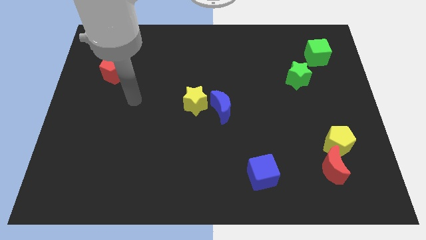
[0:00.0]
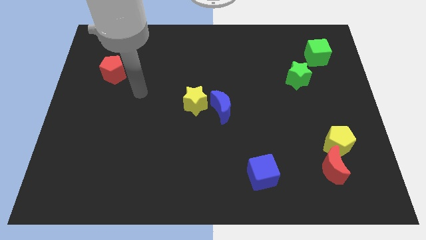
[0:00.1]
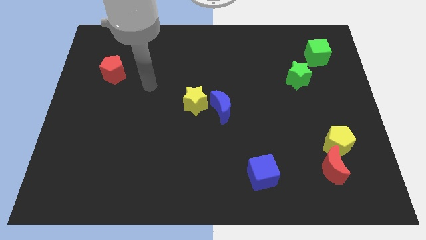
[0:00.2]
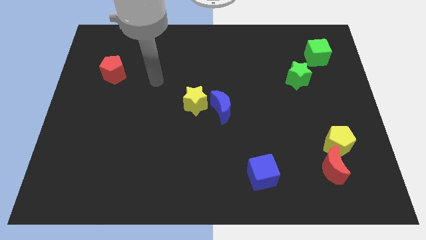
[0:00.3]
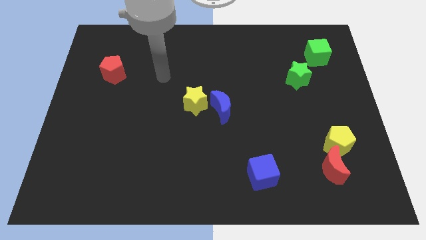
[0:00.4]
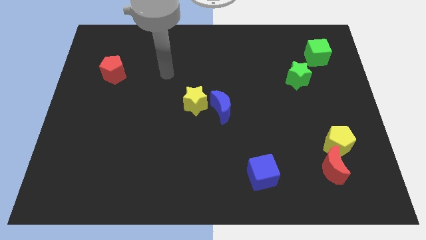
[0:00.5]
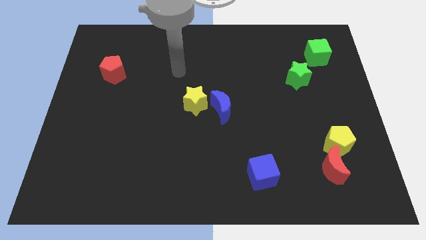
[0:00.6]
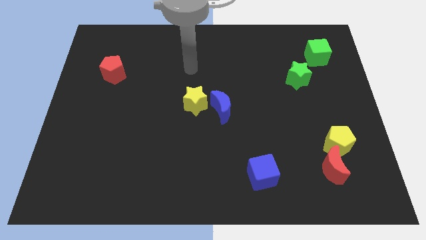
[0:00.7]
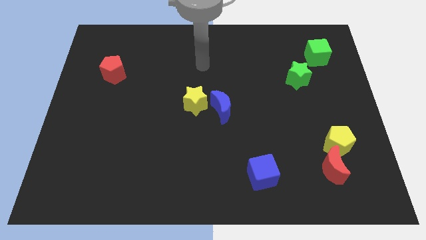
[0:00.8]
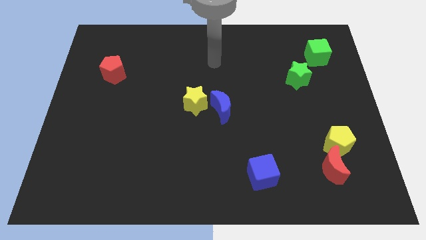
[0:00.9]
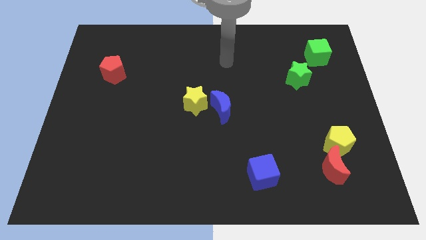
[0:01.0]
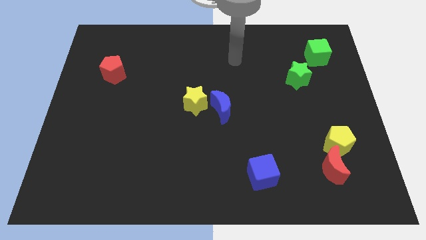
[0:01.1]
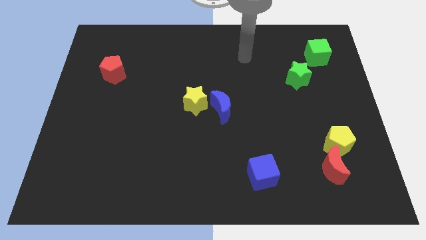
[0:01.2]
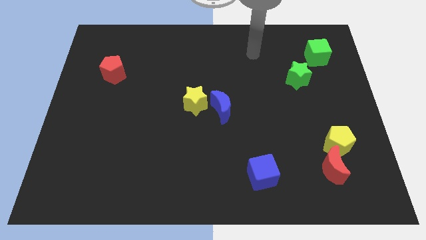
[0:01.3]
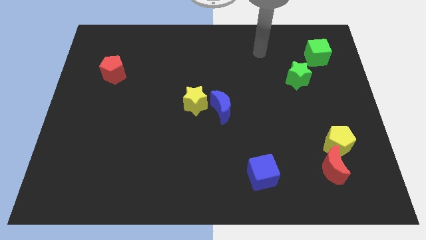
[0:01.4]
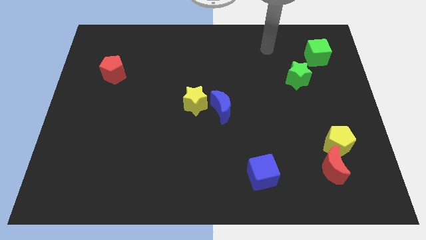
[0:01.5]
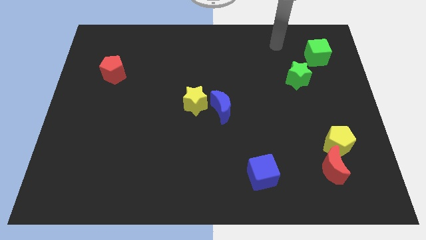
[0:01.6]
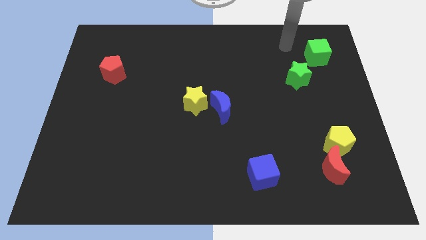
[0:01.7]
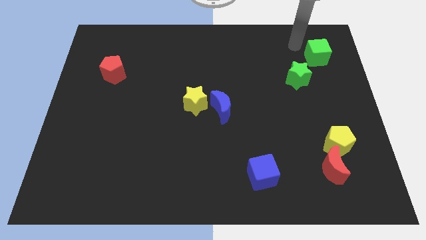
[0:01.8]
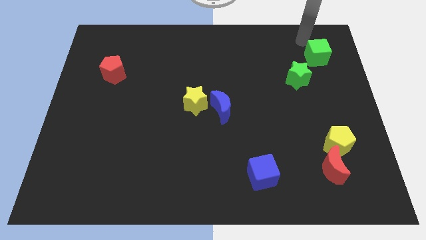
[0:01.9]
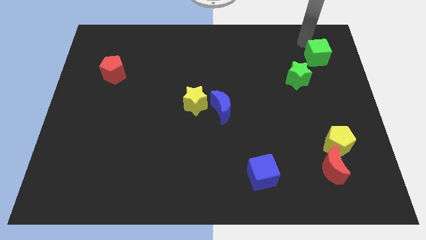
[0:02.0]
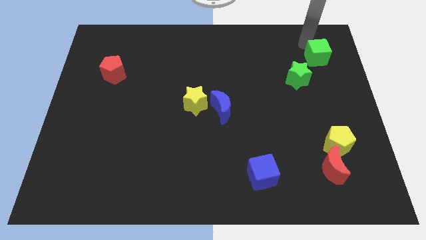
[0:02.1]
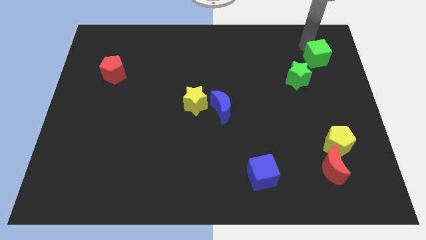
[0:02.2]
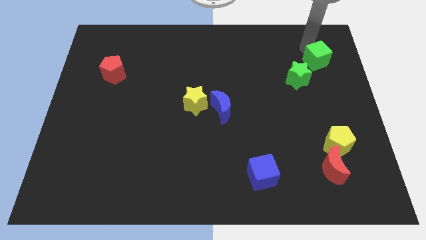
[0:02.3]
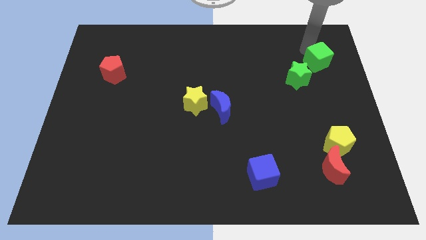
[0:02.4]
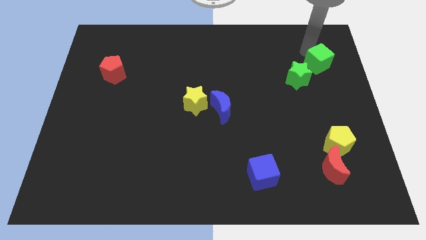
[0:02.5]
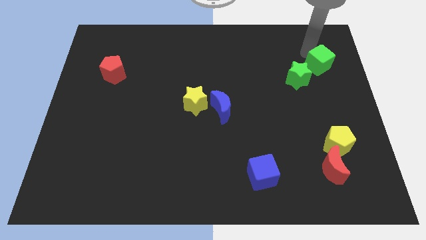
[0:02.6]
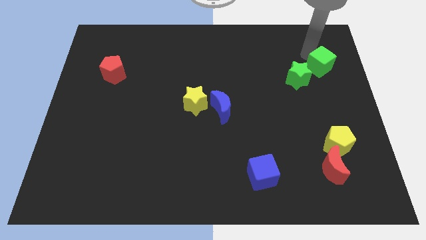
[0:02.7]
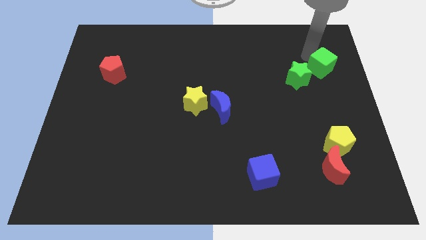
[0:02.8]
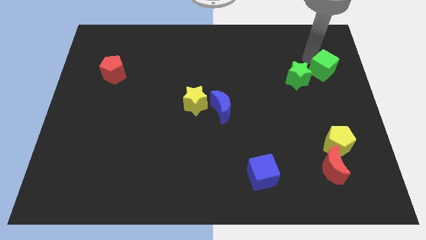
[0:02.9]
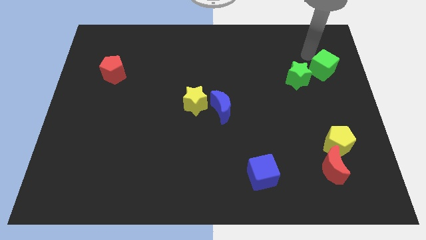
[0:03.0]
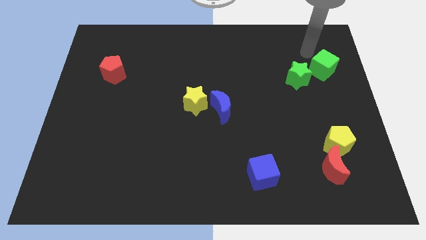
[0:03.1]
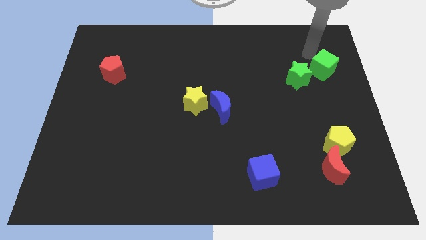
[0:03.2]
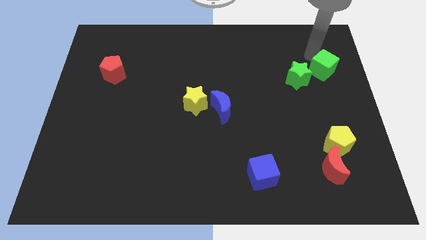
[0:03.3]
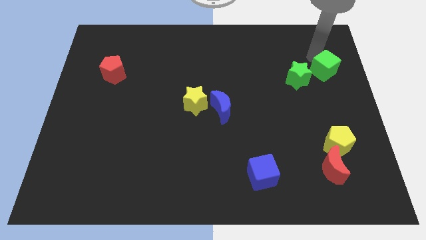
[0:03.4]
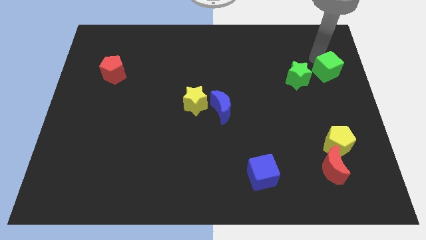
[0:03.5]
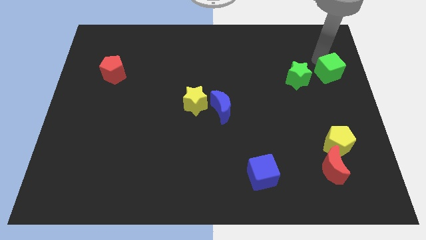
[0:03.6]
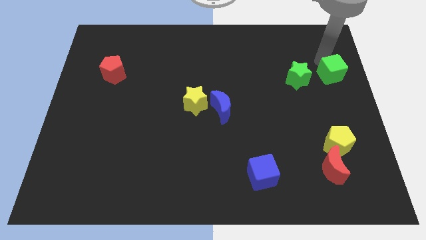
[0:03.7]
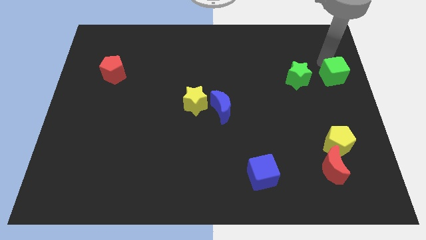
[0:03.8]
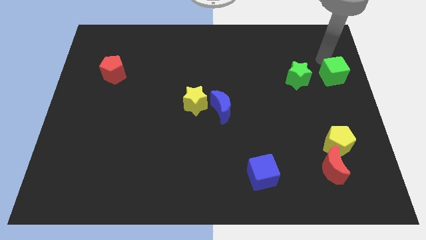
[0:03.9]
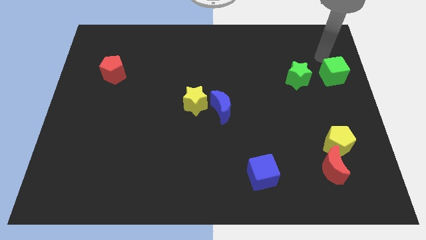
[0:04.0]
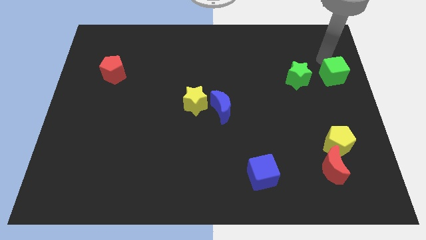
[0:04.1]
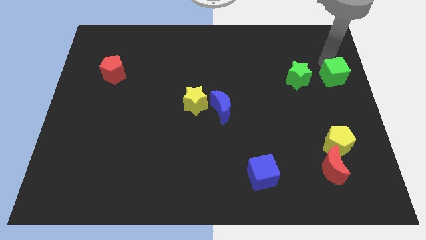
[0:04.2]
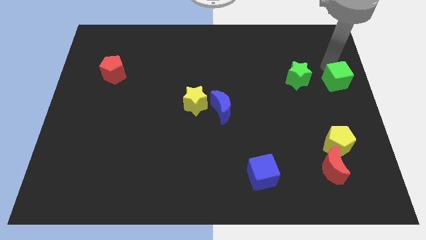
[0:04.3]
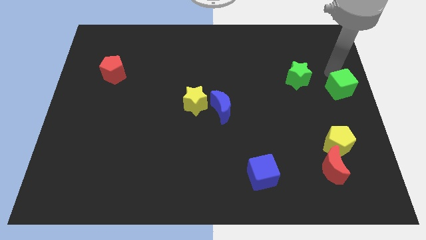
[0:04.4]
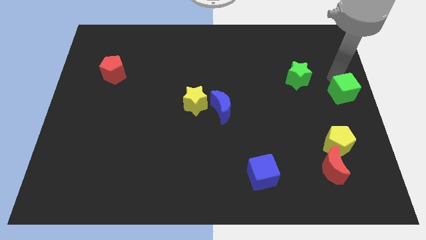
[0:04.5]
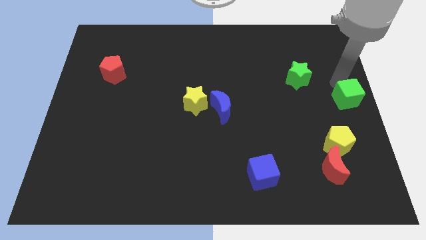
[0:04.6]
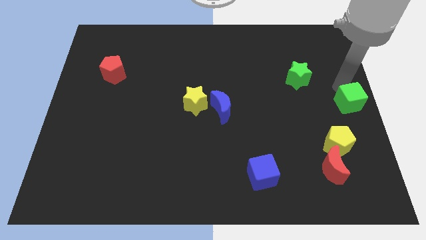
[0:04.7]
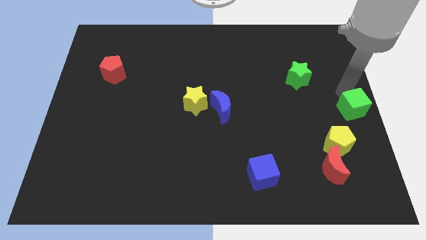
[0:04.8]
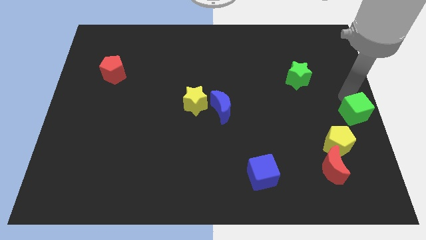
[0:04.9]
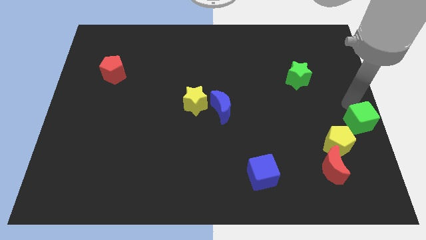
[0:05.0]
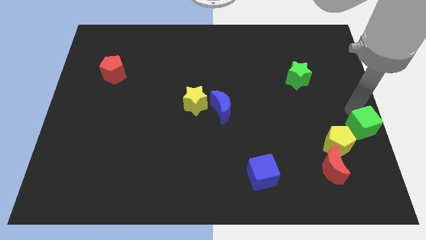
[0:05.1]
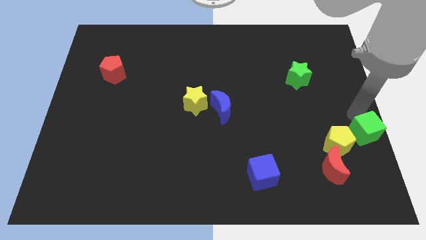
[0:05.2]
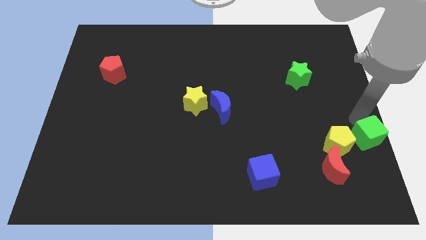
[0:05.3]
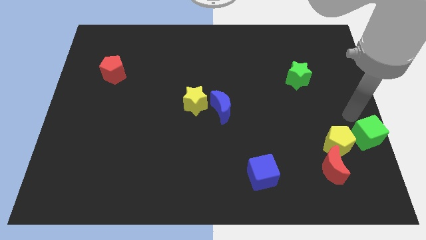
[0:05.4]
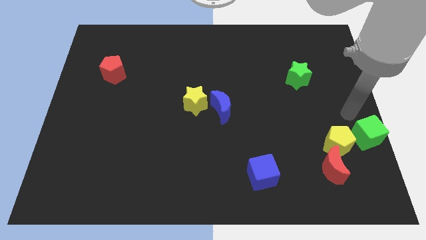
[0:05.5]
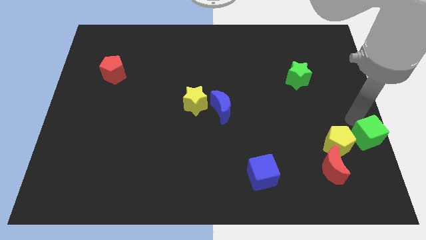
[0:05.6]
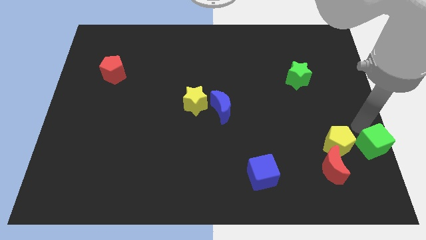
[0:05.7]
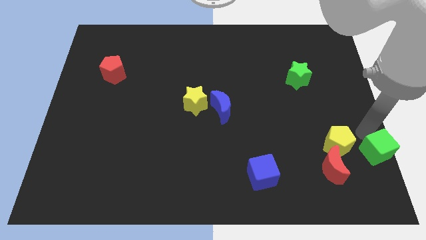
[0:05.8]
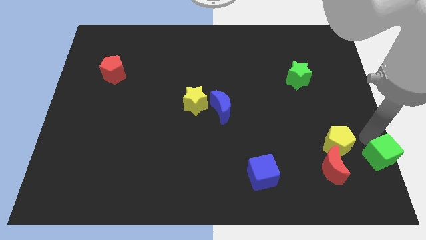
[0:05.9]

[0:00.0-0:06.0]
push the green cube to the bottom right
